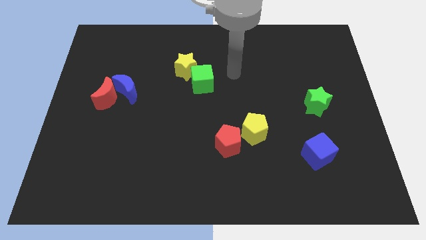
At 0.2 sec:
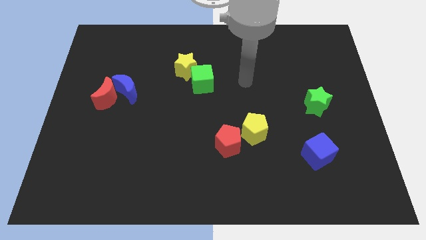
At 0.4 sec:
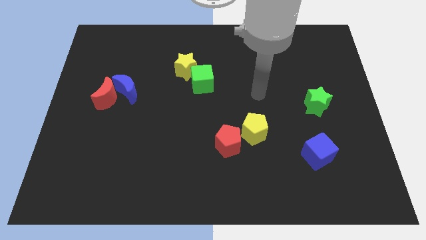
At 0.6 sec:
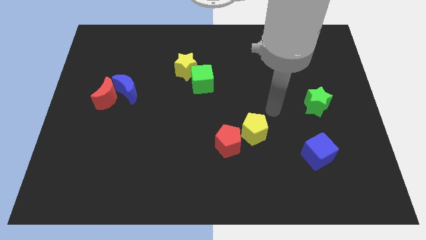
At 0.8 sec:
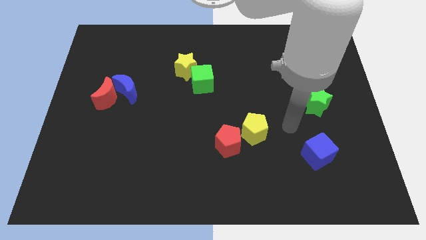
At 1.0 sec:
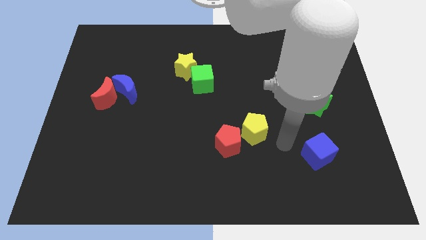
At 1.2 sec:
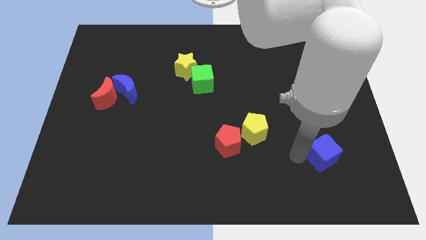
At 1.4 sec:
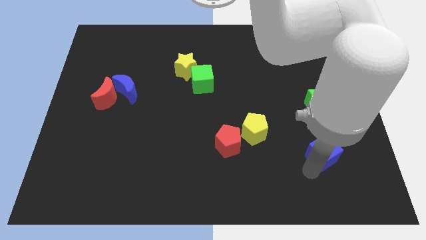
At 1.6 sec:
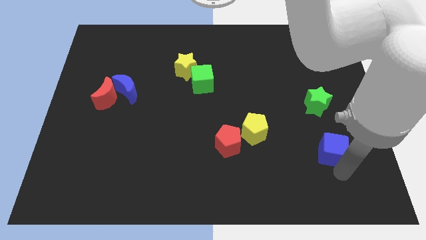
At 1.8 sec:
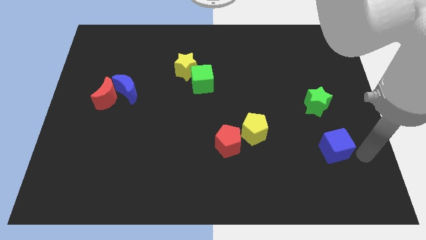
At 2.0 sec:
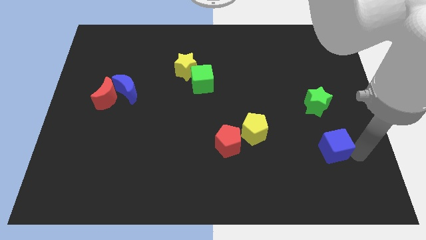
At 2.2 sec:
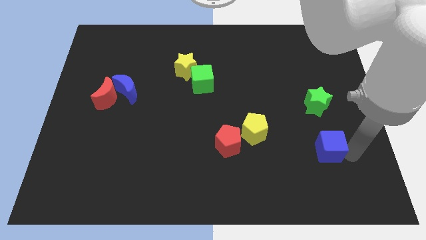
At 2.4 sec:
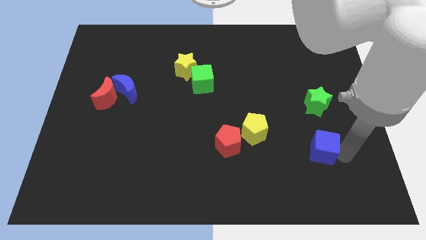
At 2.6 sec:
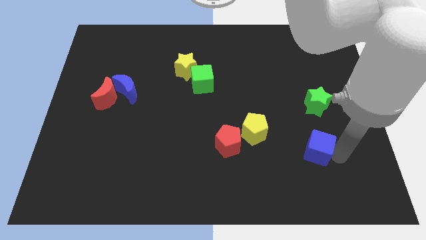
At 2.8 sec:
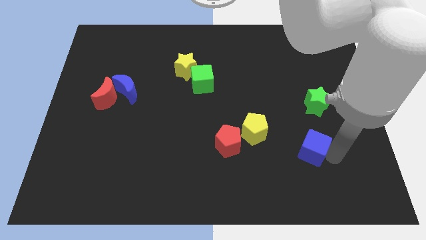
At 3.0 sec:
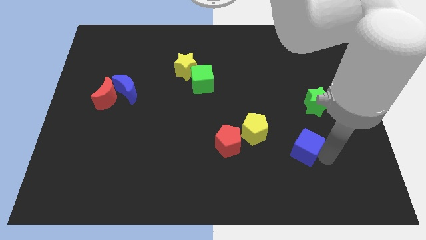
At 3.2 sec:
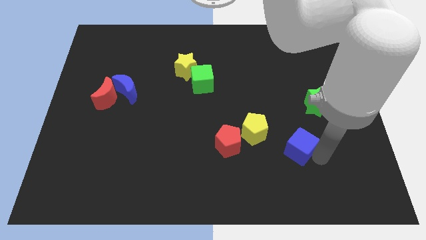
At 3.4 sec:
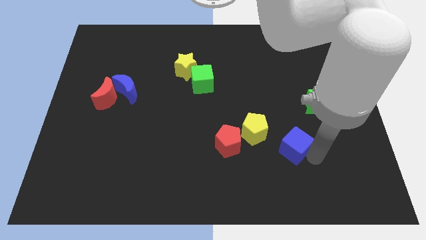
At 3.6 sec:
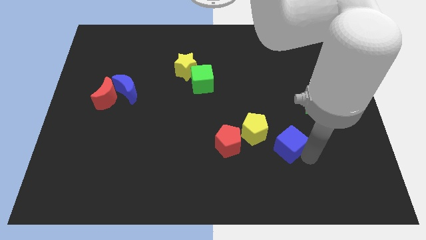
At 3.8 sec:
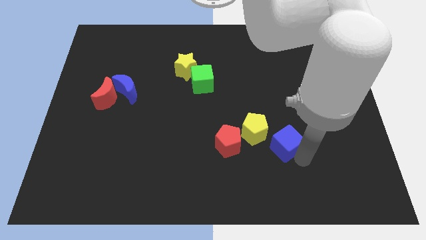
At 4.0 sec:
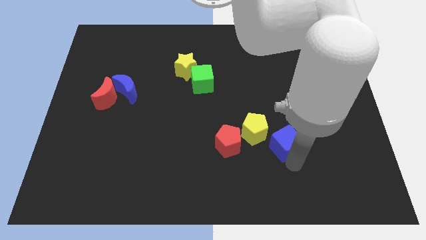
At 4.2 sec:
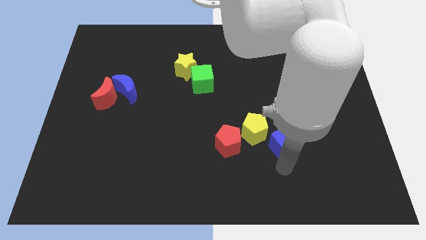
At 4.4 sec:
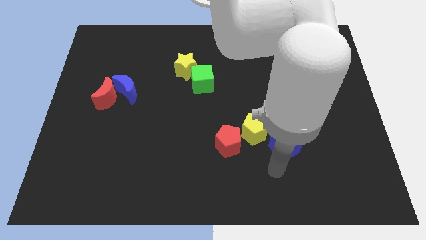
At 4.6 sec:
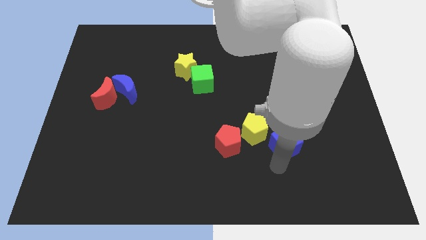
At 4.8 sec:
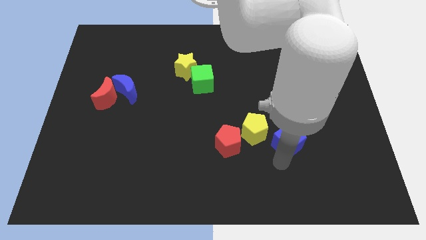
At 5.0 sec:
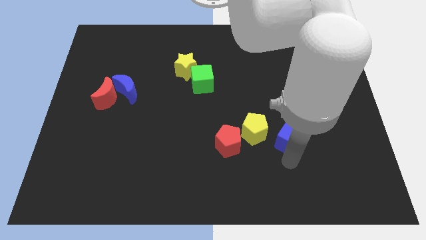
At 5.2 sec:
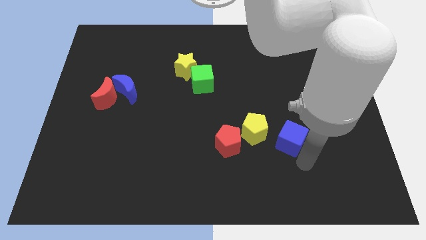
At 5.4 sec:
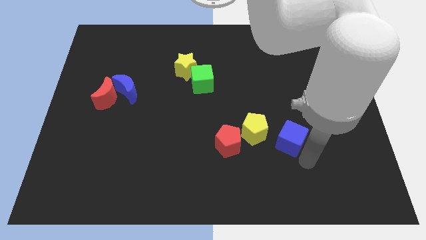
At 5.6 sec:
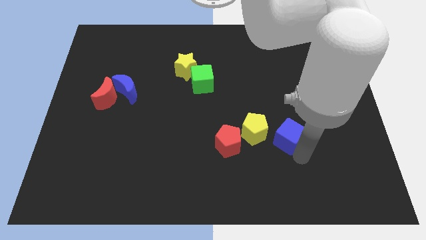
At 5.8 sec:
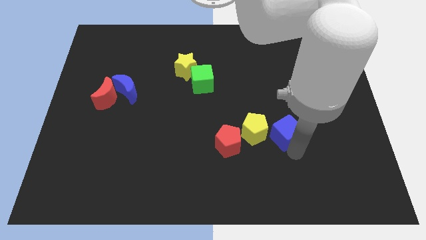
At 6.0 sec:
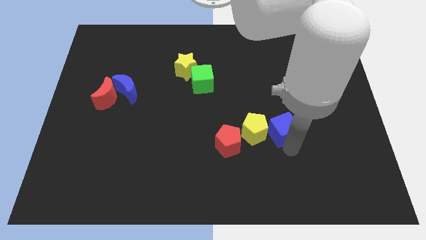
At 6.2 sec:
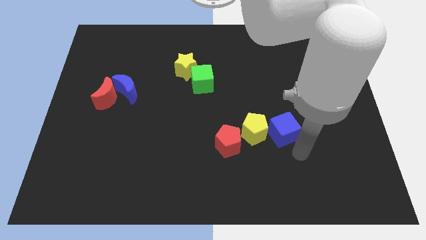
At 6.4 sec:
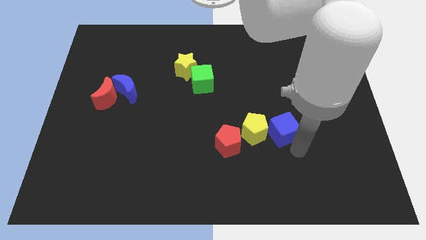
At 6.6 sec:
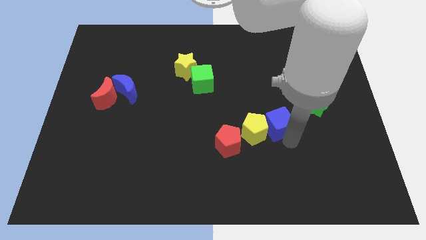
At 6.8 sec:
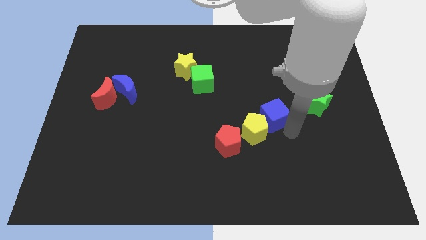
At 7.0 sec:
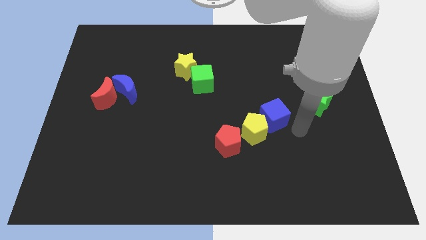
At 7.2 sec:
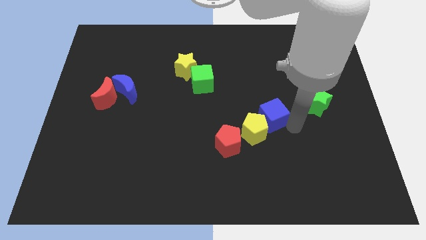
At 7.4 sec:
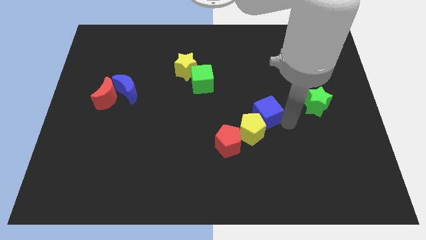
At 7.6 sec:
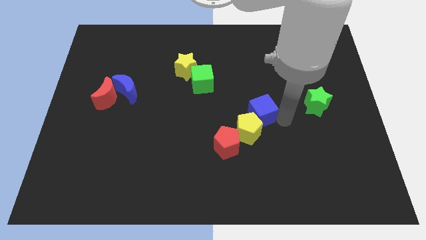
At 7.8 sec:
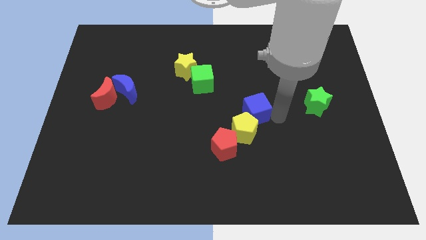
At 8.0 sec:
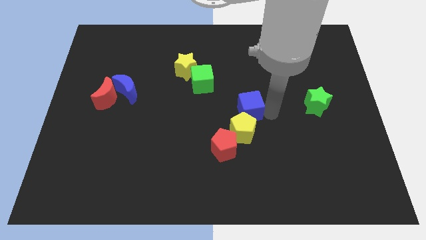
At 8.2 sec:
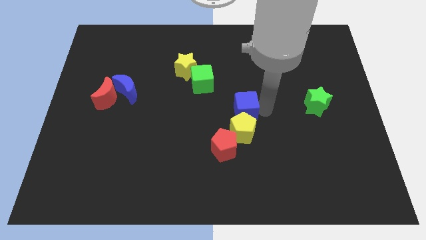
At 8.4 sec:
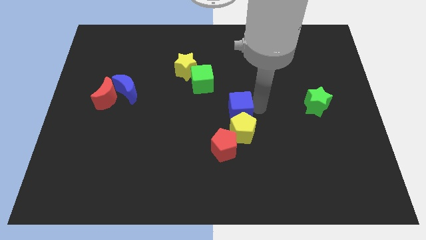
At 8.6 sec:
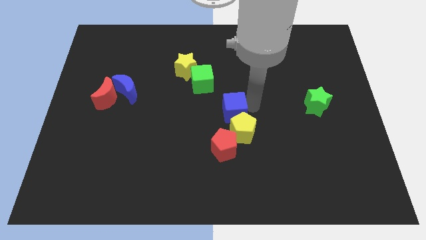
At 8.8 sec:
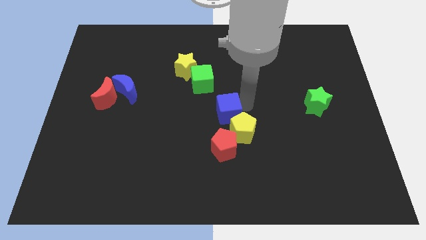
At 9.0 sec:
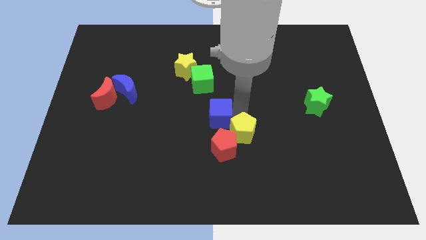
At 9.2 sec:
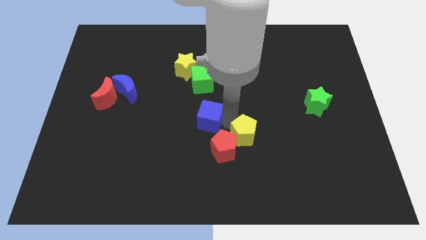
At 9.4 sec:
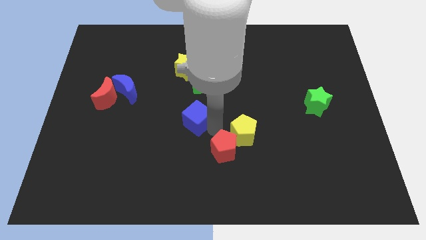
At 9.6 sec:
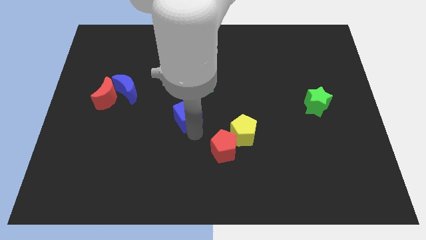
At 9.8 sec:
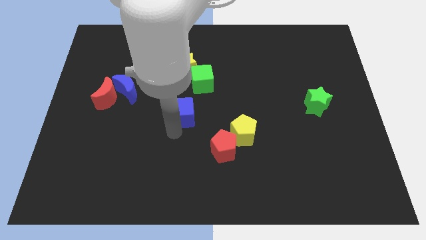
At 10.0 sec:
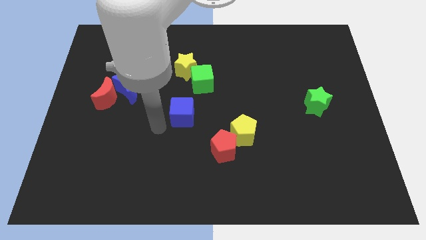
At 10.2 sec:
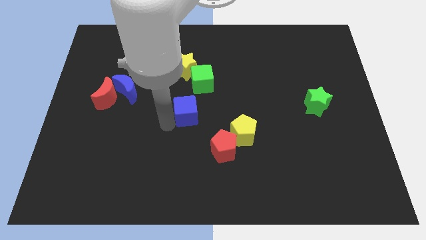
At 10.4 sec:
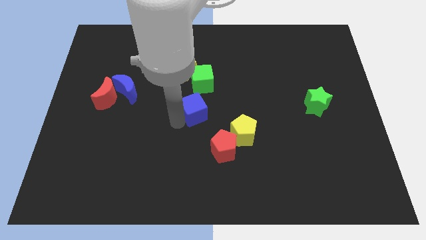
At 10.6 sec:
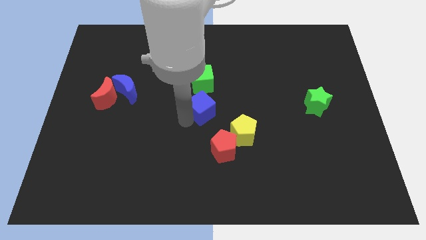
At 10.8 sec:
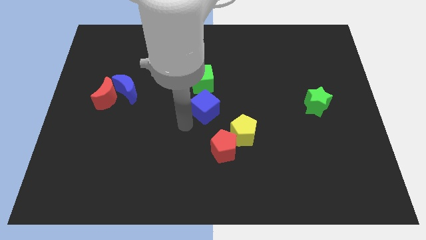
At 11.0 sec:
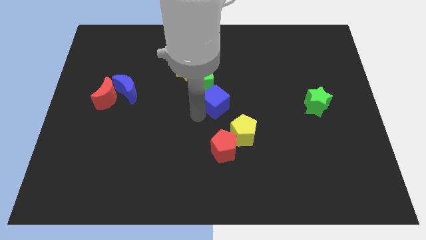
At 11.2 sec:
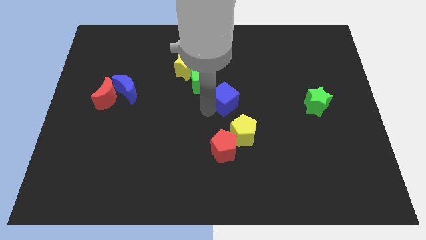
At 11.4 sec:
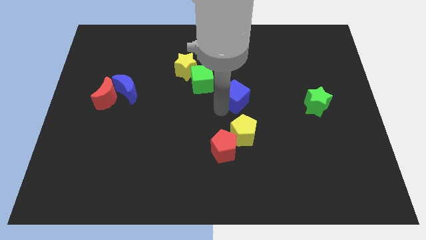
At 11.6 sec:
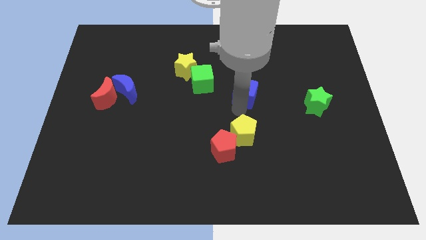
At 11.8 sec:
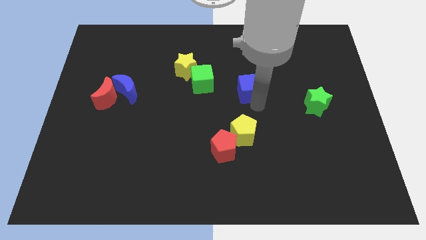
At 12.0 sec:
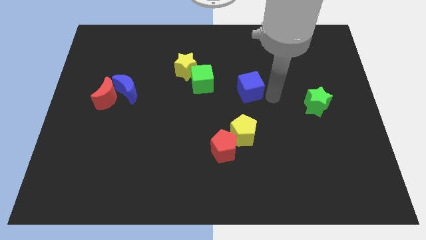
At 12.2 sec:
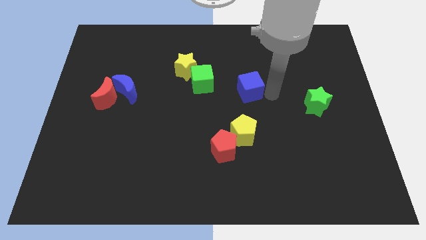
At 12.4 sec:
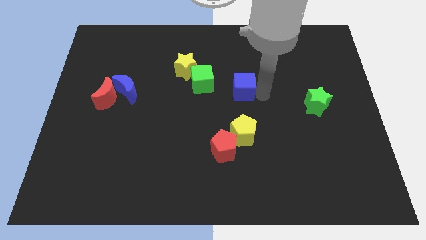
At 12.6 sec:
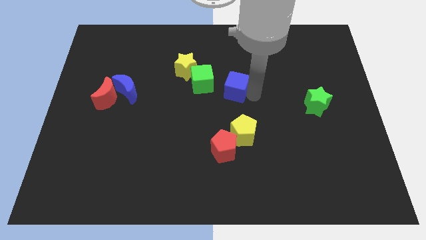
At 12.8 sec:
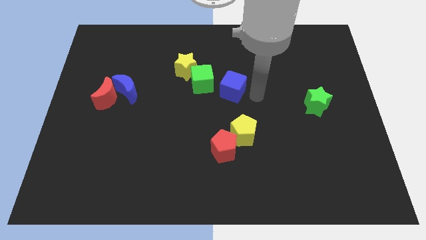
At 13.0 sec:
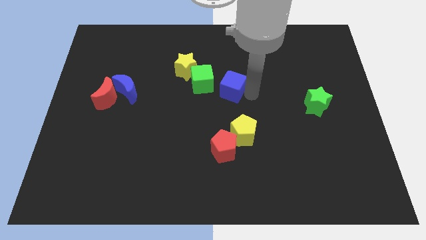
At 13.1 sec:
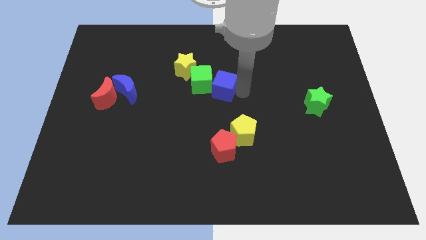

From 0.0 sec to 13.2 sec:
put the blue cube close to the green cube

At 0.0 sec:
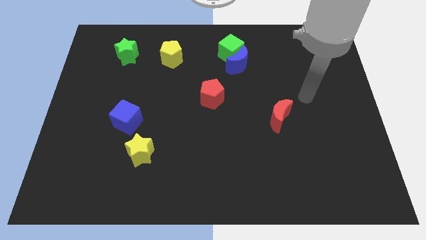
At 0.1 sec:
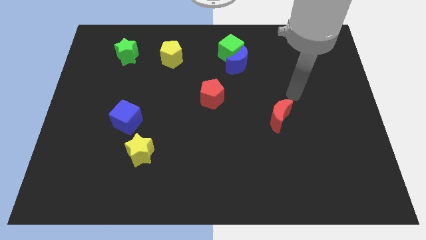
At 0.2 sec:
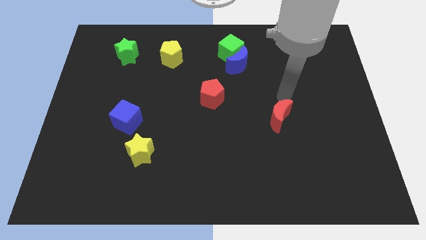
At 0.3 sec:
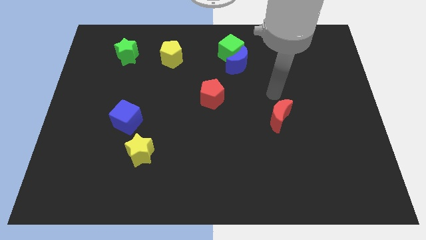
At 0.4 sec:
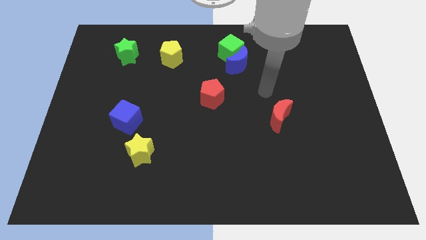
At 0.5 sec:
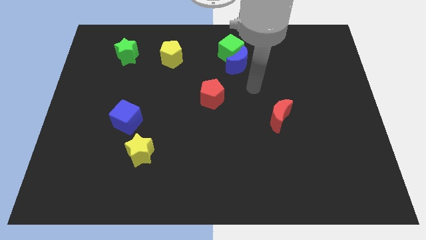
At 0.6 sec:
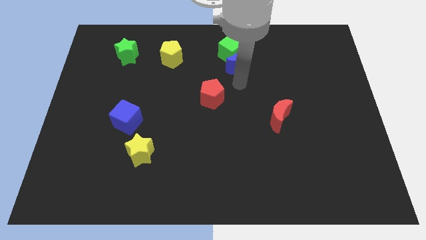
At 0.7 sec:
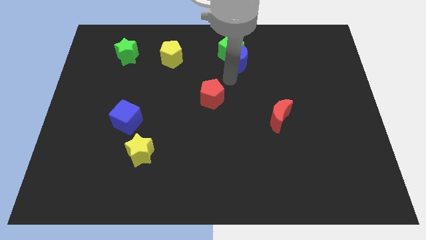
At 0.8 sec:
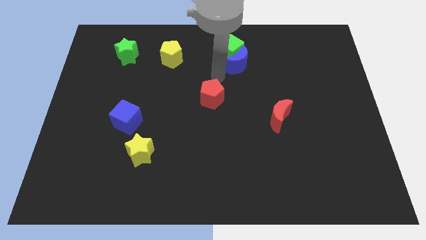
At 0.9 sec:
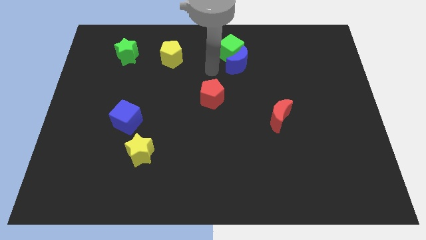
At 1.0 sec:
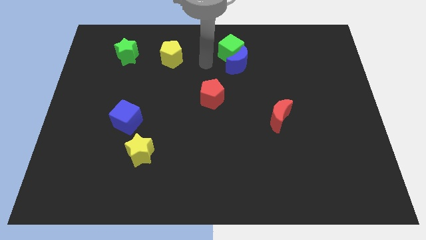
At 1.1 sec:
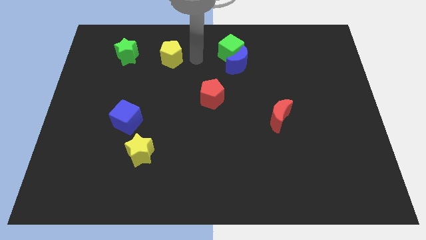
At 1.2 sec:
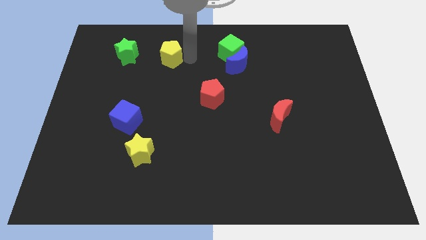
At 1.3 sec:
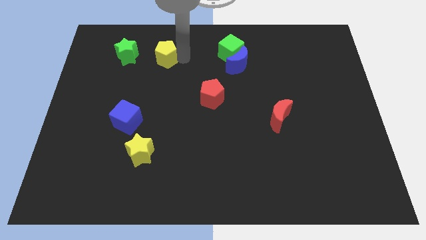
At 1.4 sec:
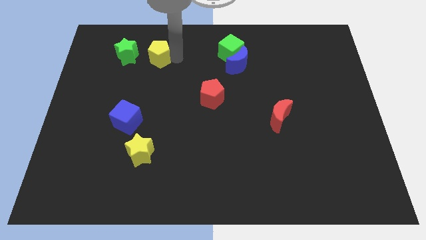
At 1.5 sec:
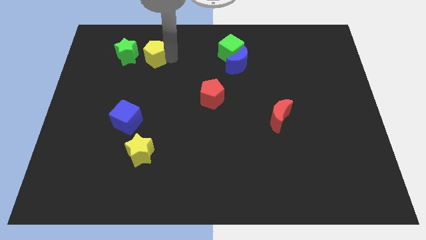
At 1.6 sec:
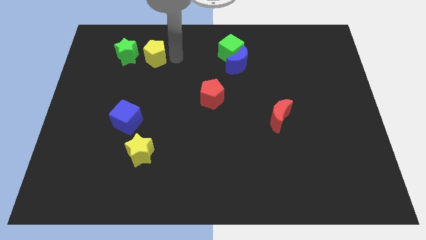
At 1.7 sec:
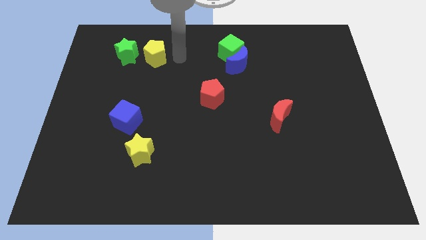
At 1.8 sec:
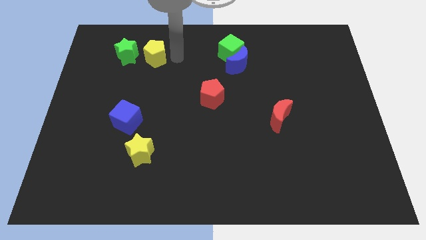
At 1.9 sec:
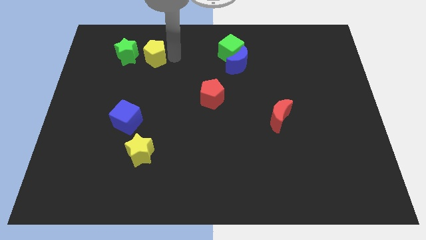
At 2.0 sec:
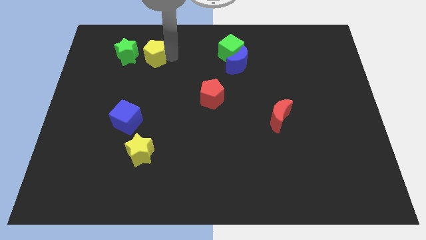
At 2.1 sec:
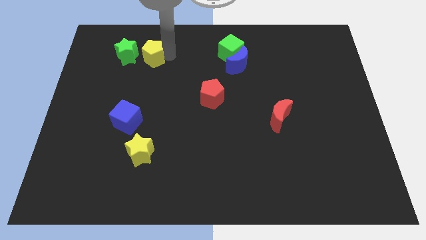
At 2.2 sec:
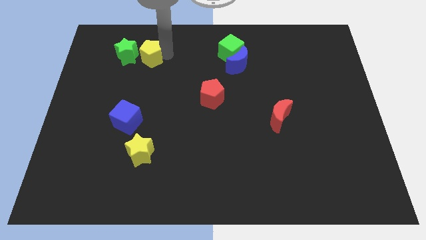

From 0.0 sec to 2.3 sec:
push the yellow pentagon next to the green star
